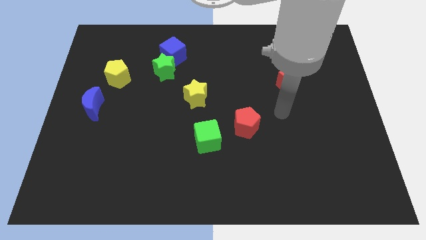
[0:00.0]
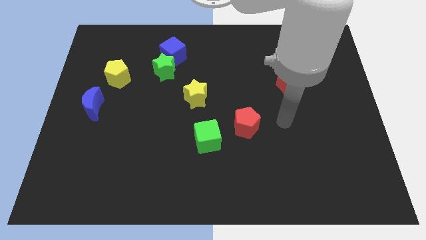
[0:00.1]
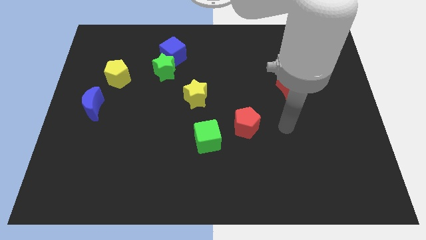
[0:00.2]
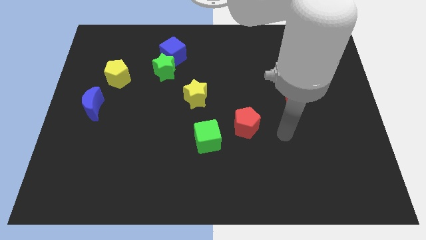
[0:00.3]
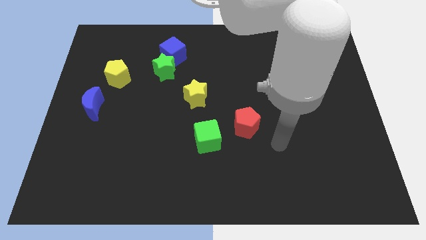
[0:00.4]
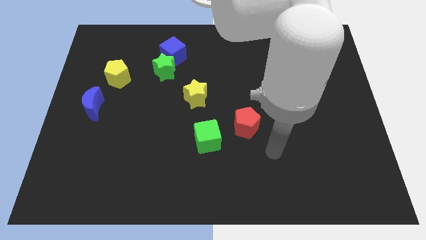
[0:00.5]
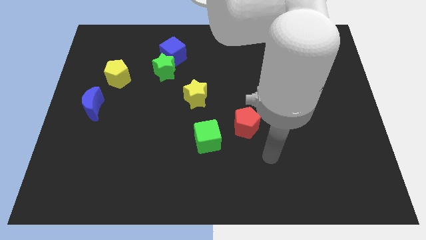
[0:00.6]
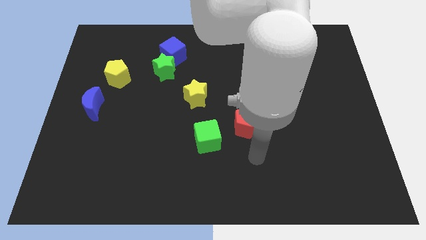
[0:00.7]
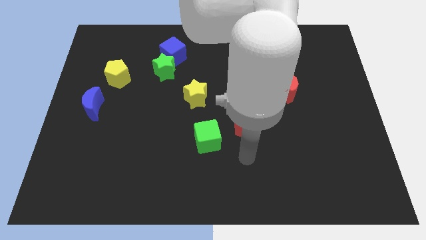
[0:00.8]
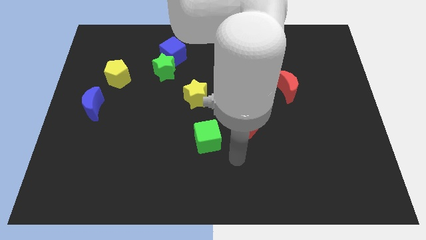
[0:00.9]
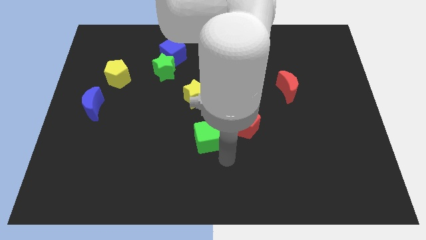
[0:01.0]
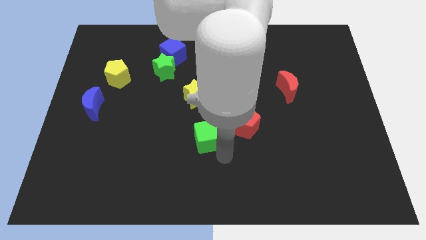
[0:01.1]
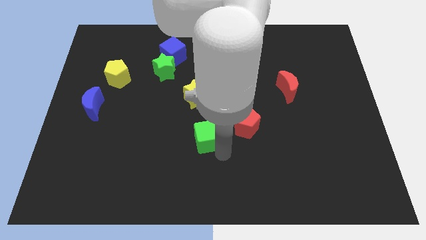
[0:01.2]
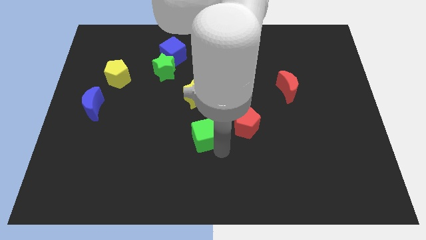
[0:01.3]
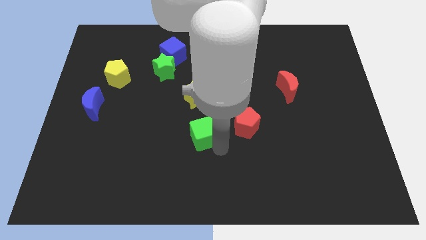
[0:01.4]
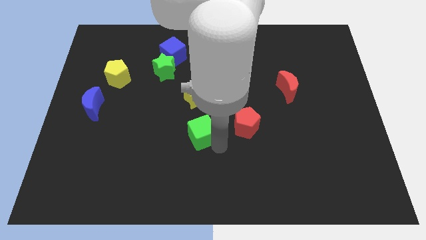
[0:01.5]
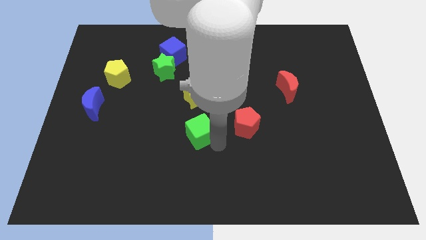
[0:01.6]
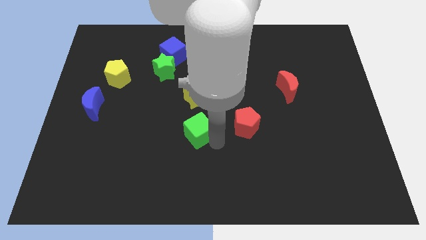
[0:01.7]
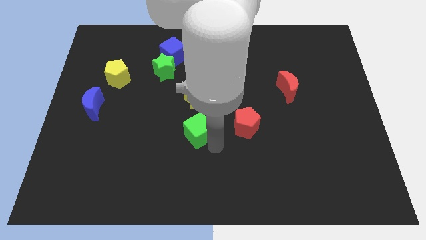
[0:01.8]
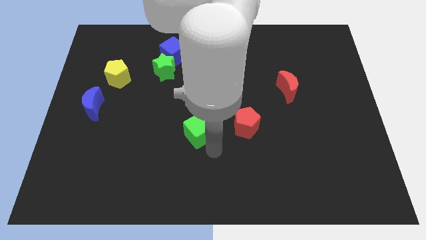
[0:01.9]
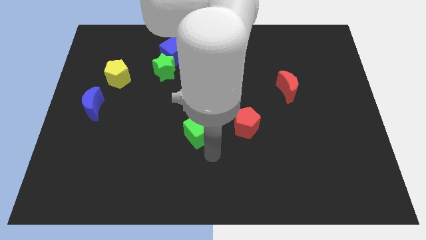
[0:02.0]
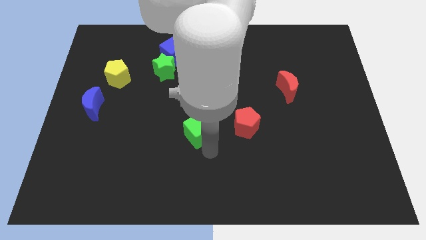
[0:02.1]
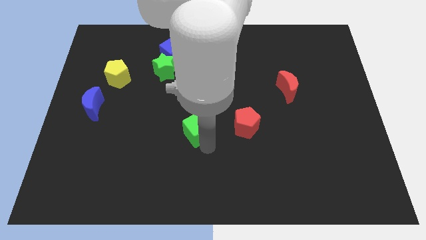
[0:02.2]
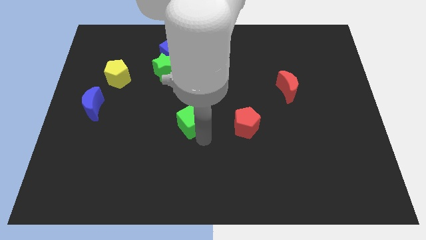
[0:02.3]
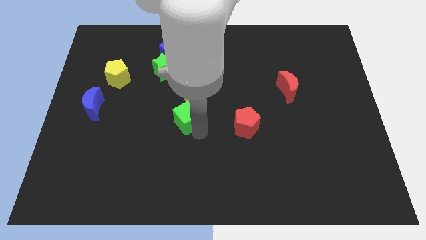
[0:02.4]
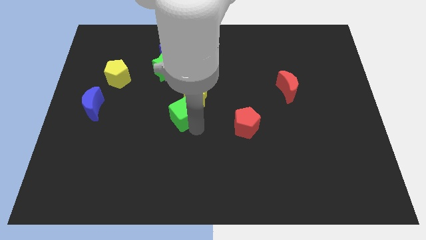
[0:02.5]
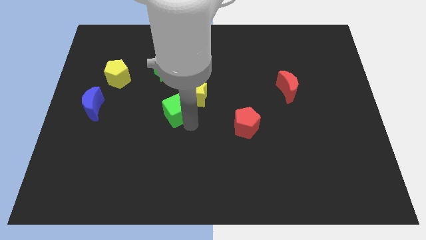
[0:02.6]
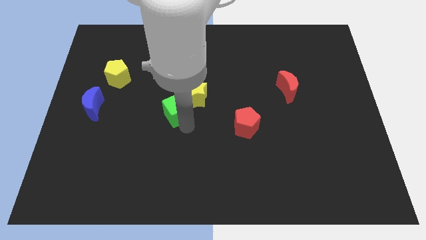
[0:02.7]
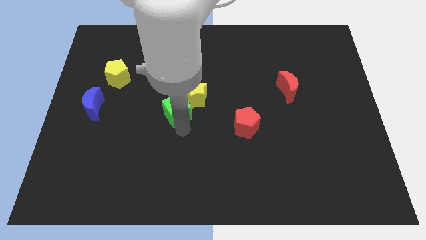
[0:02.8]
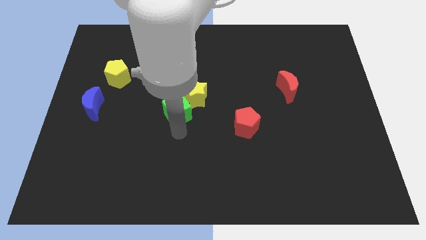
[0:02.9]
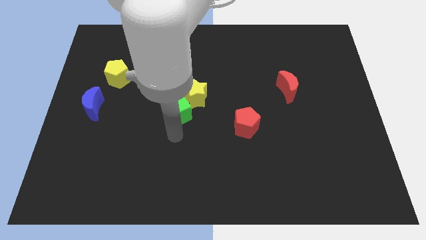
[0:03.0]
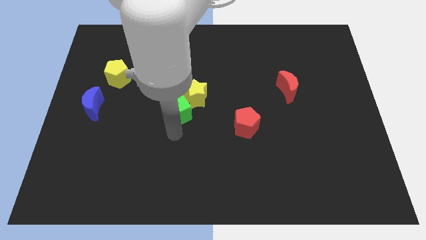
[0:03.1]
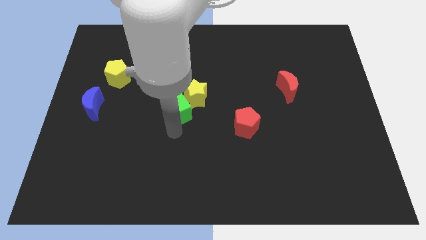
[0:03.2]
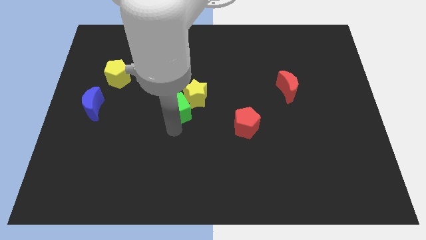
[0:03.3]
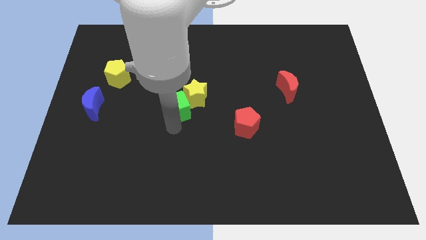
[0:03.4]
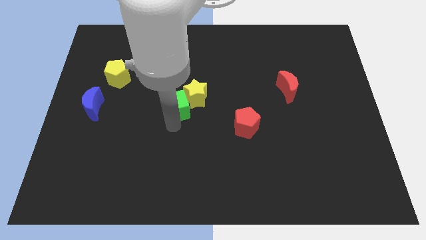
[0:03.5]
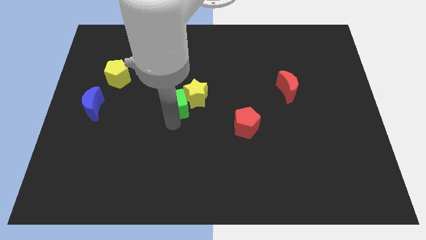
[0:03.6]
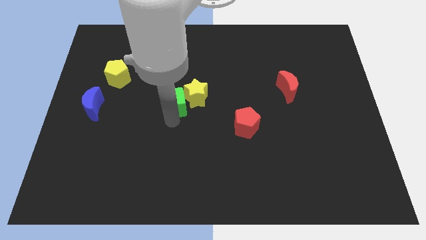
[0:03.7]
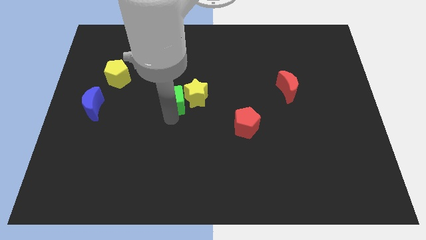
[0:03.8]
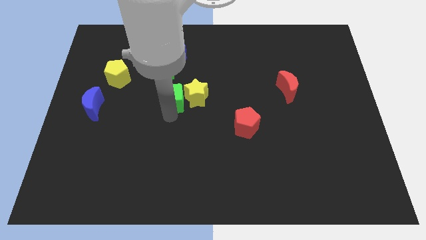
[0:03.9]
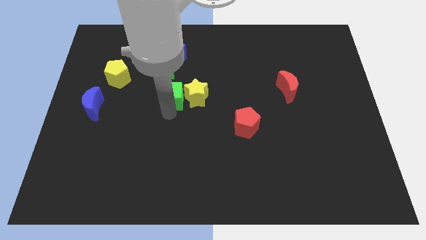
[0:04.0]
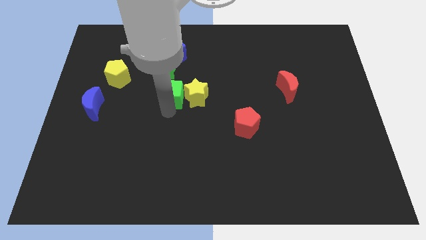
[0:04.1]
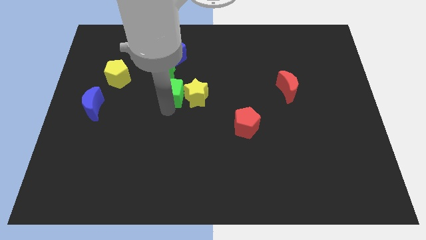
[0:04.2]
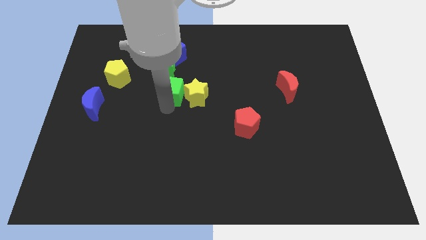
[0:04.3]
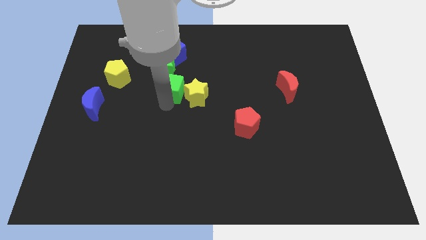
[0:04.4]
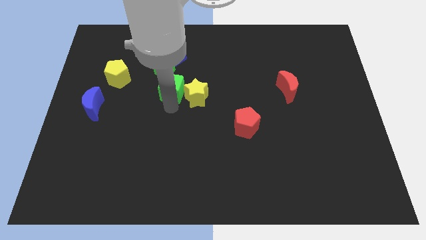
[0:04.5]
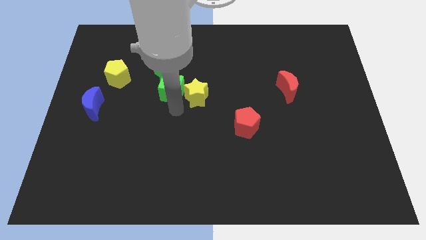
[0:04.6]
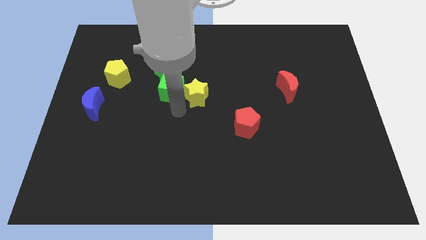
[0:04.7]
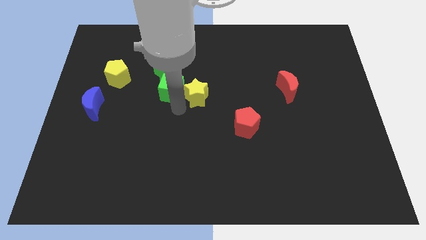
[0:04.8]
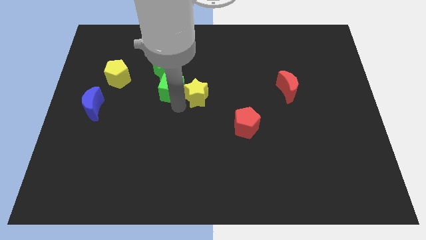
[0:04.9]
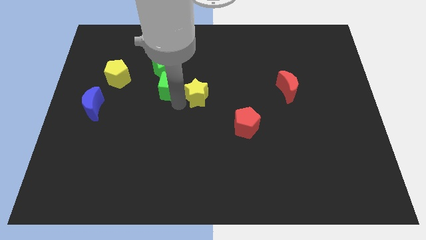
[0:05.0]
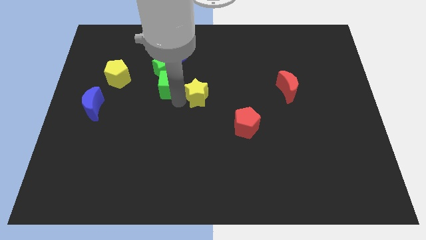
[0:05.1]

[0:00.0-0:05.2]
push the green cube to the green star

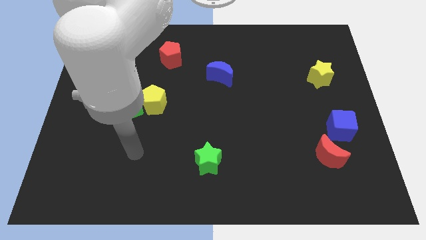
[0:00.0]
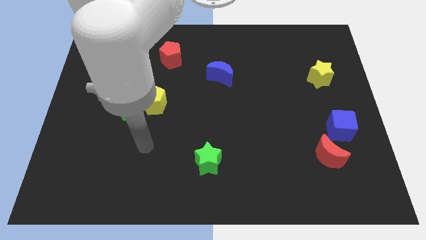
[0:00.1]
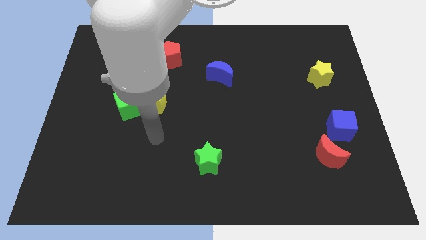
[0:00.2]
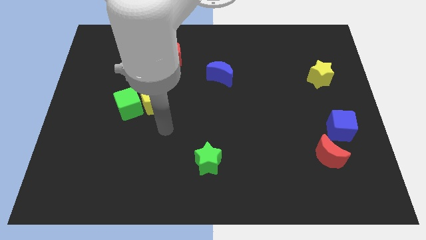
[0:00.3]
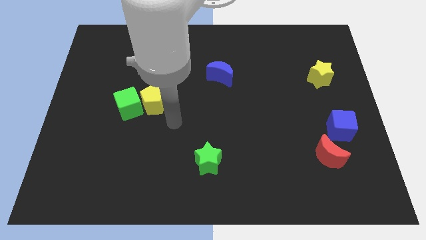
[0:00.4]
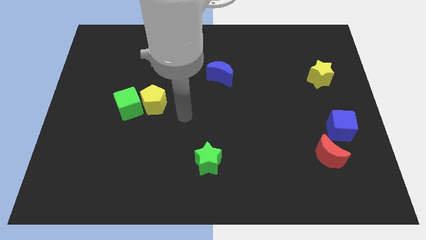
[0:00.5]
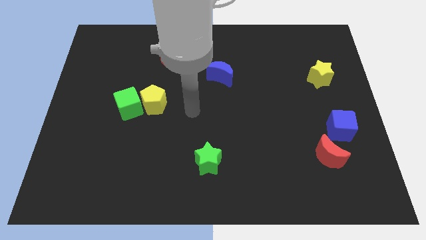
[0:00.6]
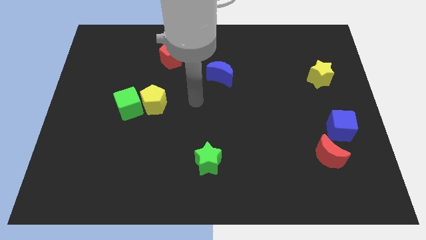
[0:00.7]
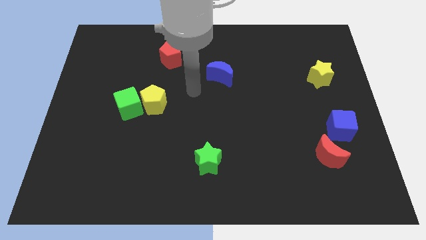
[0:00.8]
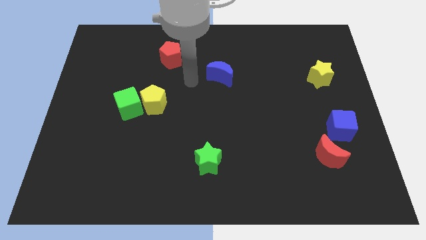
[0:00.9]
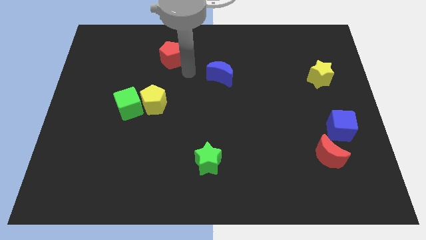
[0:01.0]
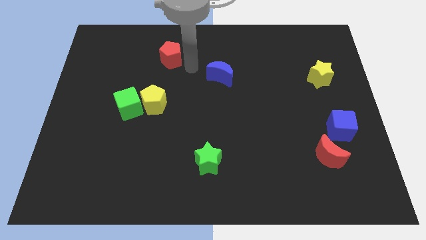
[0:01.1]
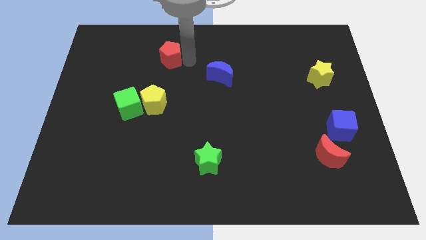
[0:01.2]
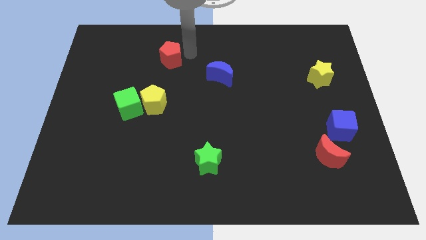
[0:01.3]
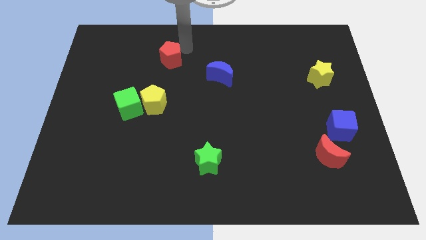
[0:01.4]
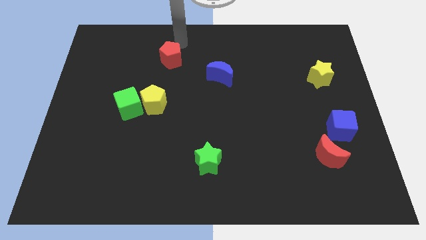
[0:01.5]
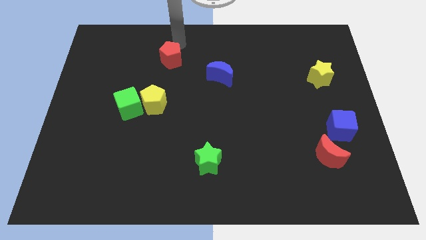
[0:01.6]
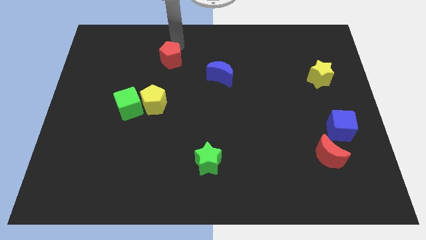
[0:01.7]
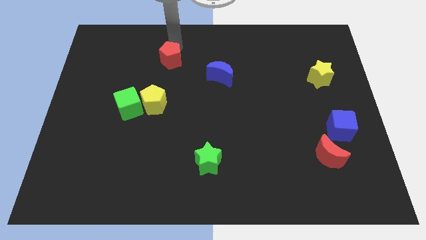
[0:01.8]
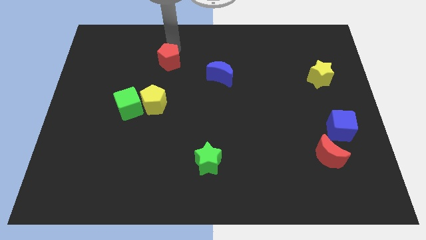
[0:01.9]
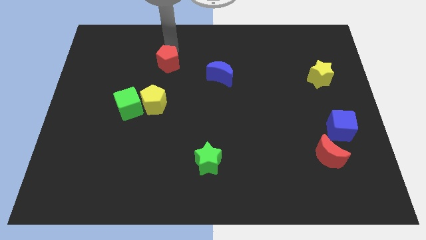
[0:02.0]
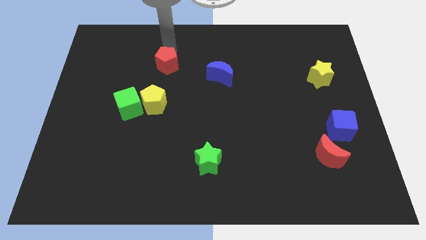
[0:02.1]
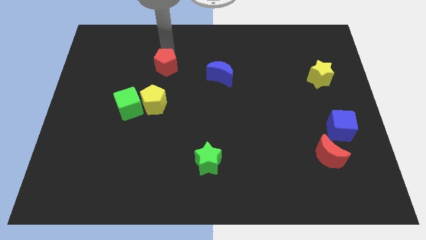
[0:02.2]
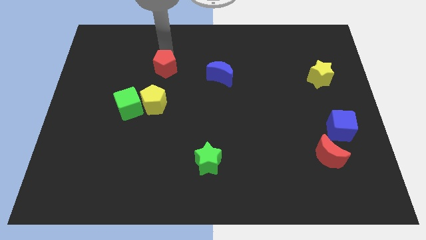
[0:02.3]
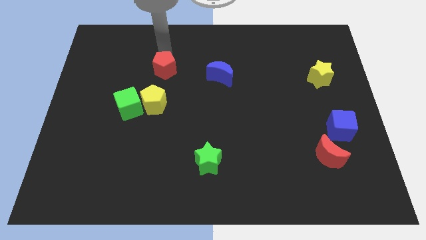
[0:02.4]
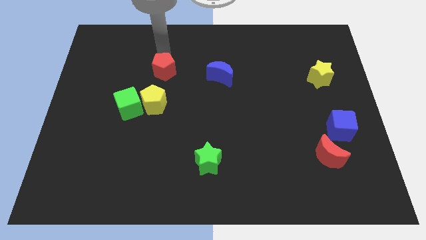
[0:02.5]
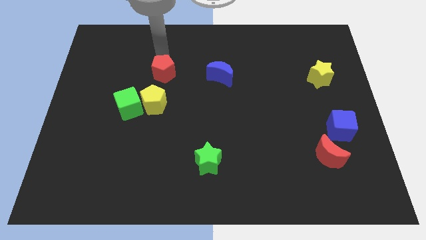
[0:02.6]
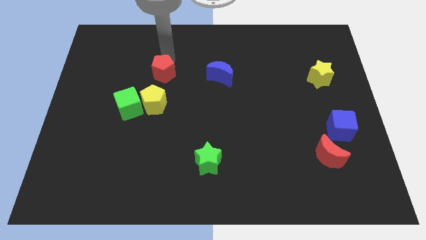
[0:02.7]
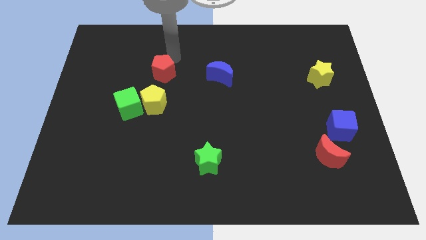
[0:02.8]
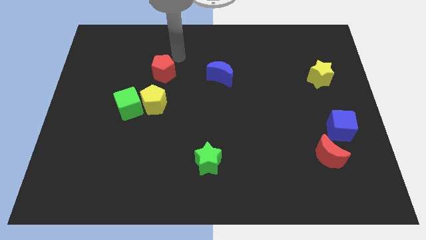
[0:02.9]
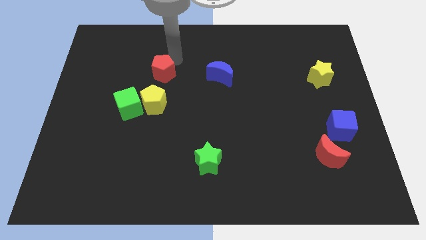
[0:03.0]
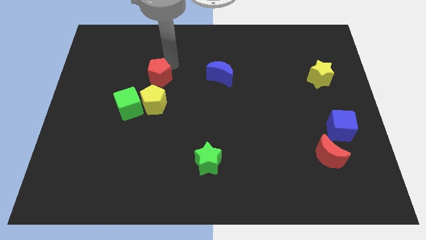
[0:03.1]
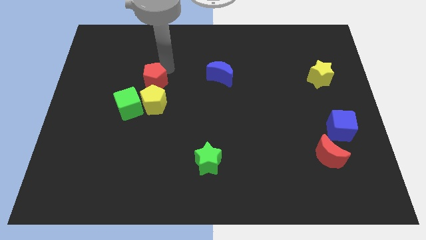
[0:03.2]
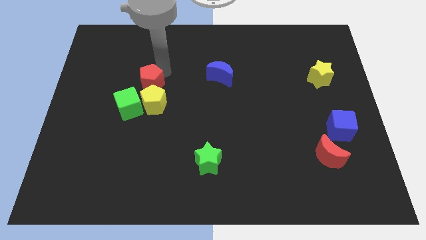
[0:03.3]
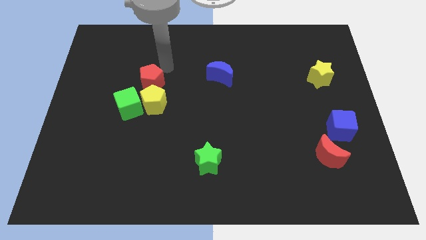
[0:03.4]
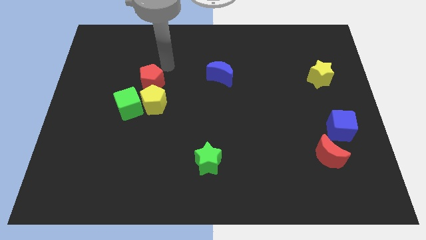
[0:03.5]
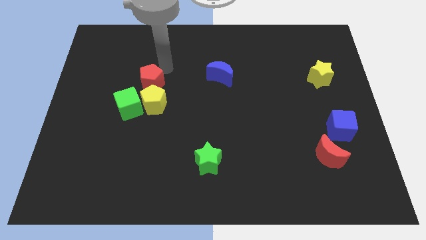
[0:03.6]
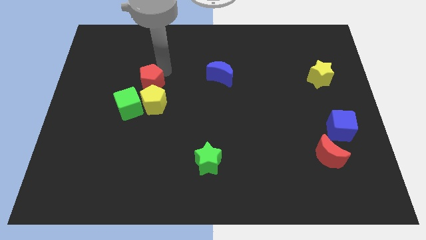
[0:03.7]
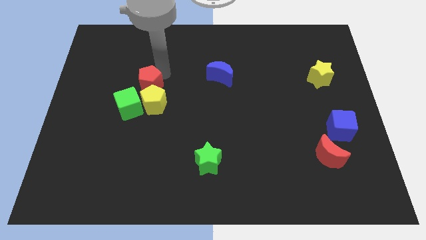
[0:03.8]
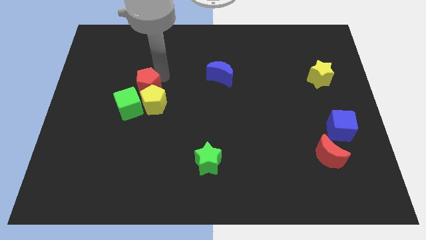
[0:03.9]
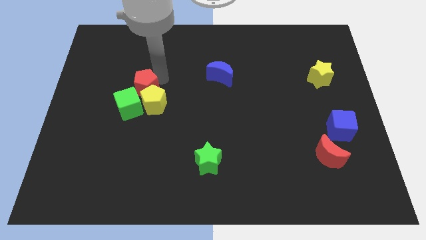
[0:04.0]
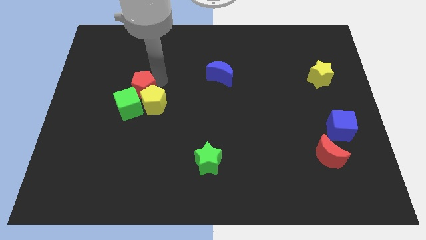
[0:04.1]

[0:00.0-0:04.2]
put the red pentagon towards the green cube
